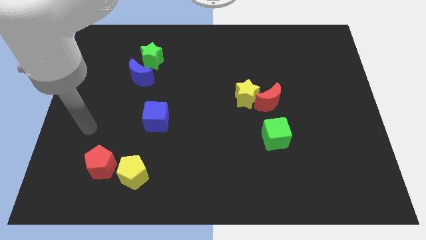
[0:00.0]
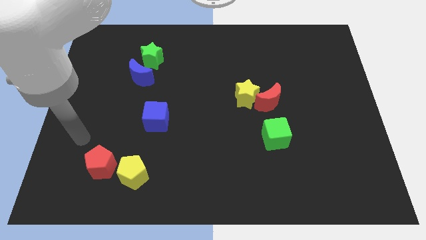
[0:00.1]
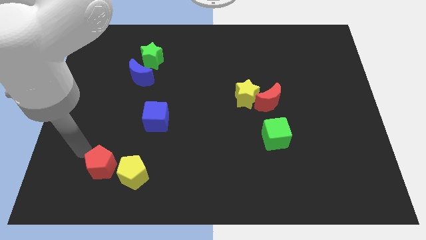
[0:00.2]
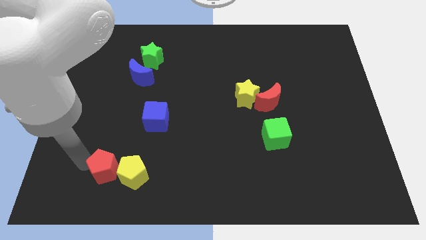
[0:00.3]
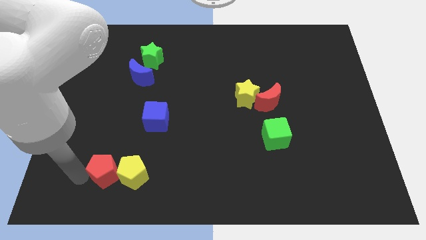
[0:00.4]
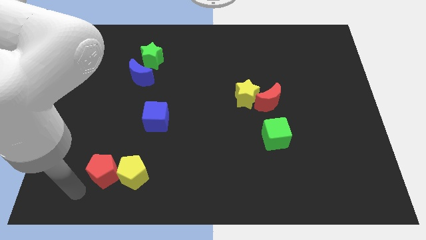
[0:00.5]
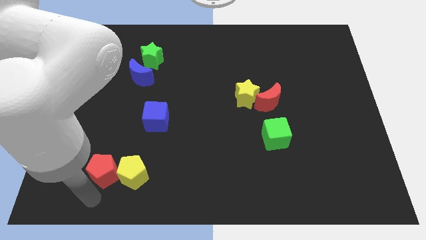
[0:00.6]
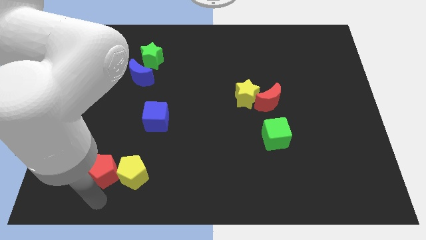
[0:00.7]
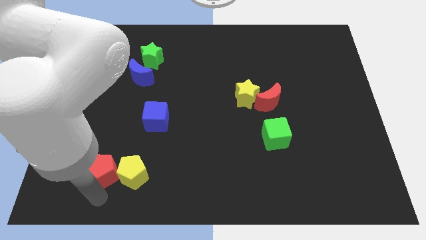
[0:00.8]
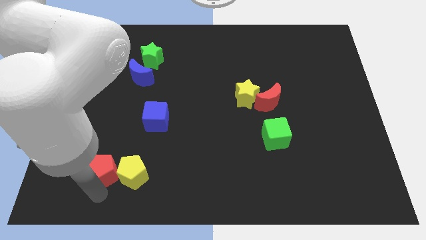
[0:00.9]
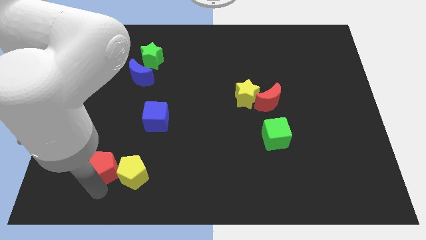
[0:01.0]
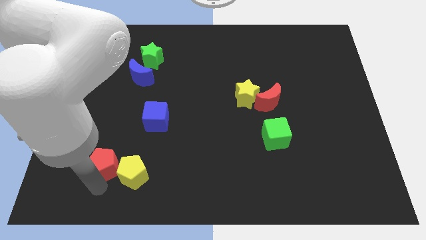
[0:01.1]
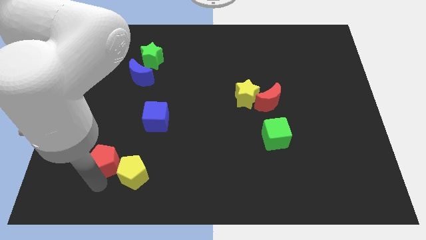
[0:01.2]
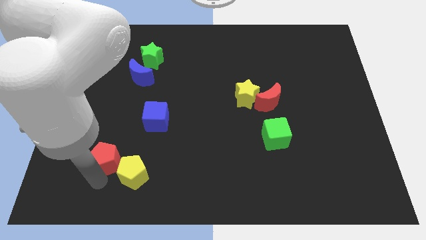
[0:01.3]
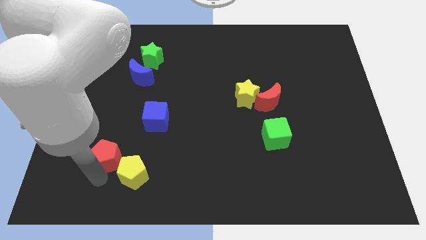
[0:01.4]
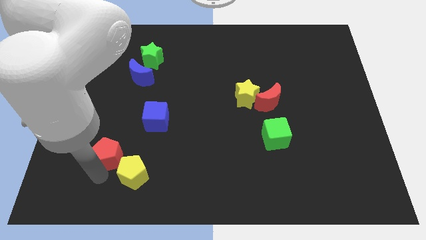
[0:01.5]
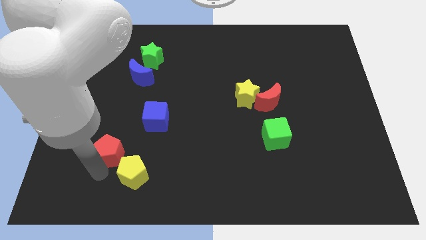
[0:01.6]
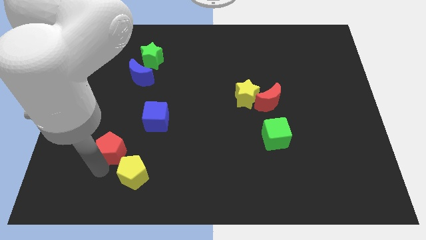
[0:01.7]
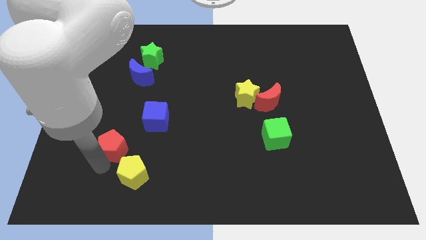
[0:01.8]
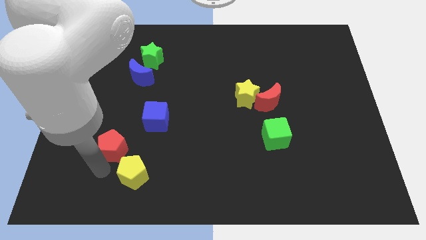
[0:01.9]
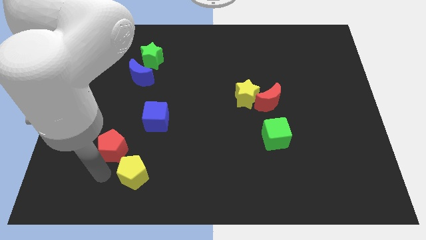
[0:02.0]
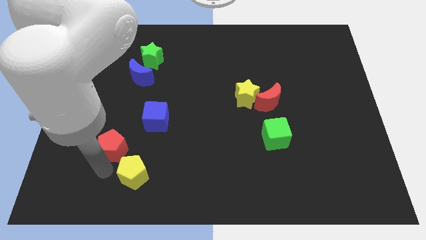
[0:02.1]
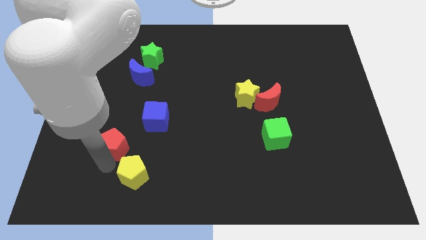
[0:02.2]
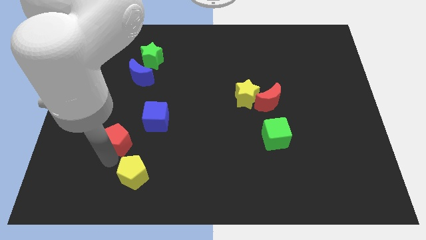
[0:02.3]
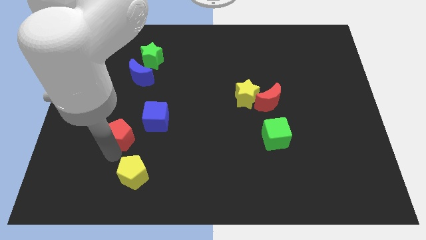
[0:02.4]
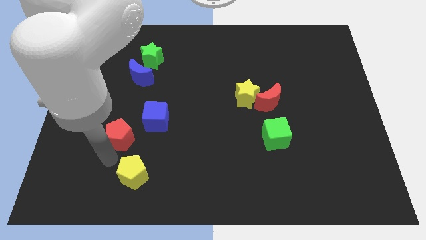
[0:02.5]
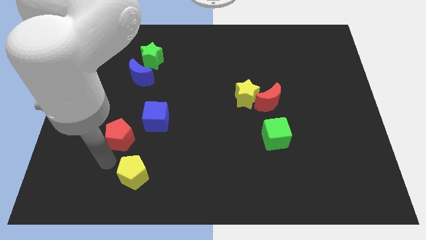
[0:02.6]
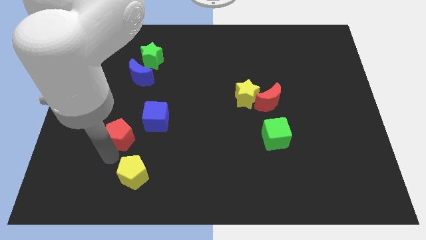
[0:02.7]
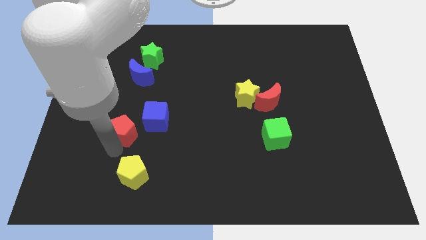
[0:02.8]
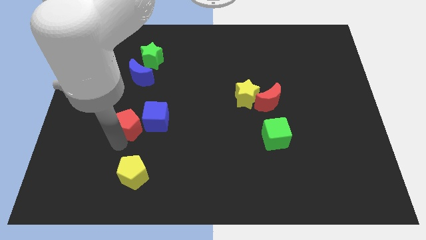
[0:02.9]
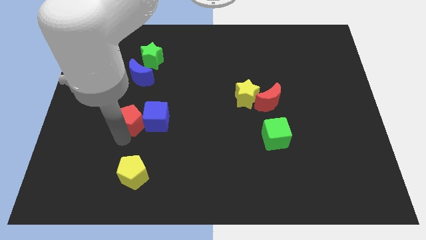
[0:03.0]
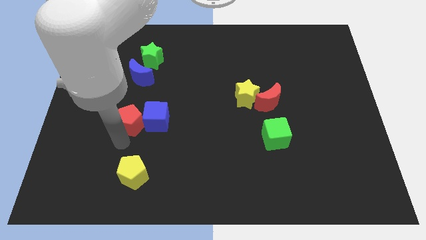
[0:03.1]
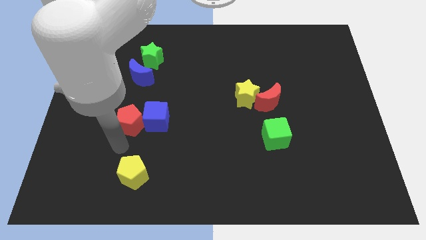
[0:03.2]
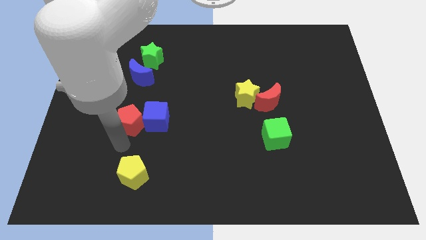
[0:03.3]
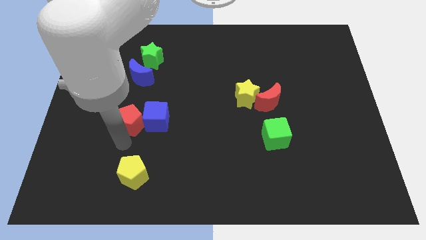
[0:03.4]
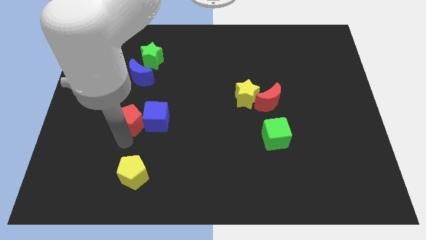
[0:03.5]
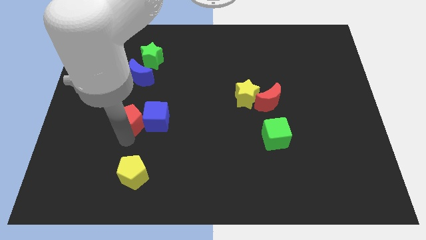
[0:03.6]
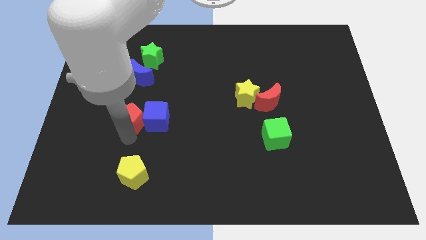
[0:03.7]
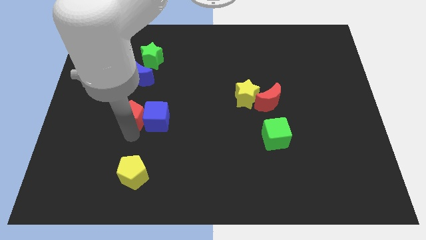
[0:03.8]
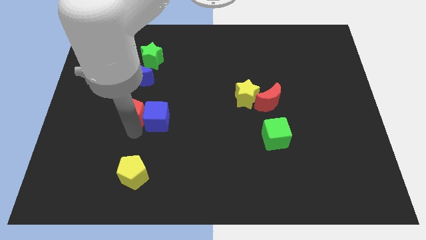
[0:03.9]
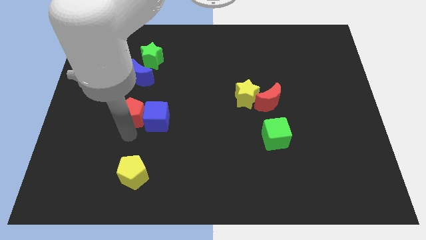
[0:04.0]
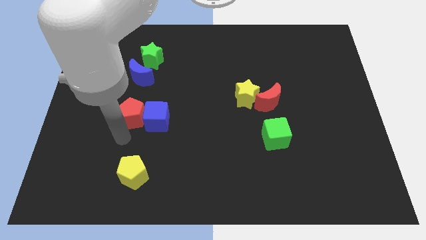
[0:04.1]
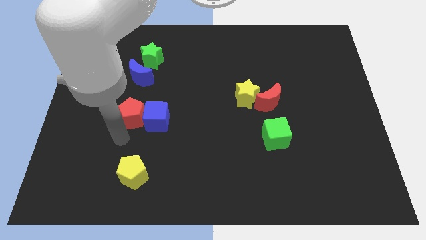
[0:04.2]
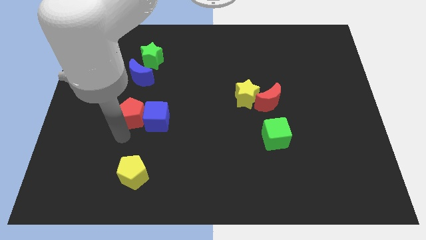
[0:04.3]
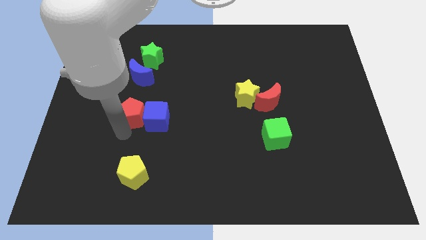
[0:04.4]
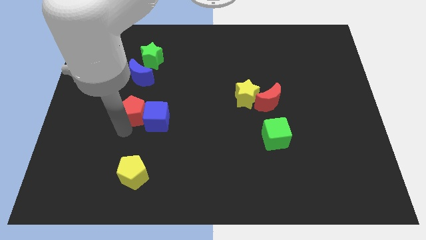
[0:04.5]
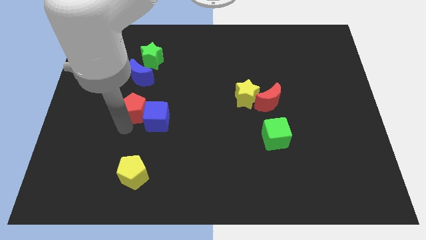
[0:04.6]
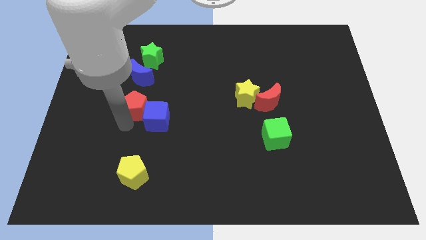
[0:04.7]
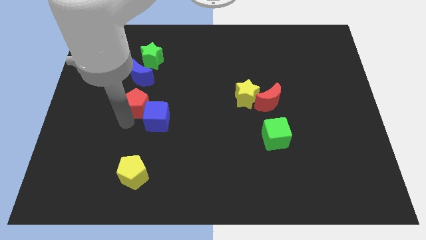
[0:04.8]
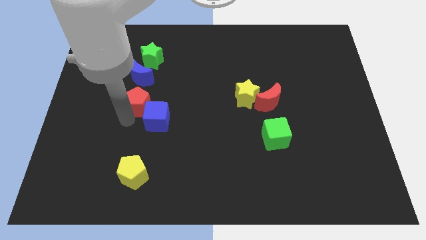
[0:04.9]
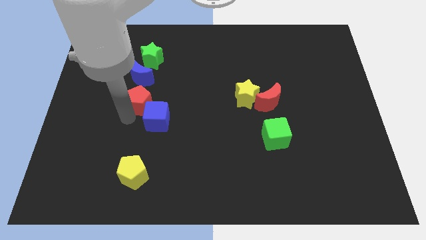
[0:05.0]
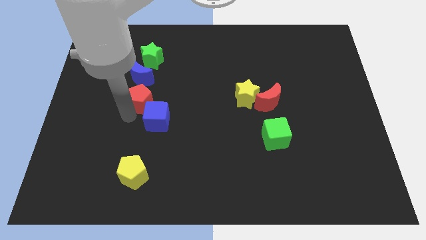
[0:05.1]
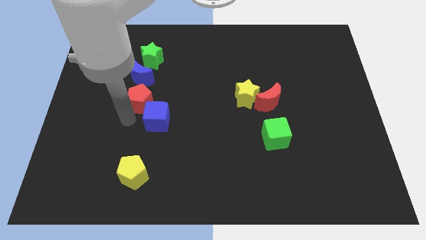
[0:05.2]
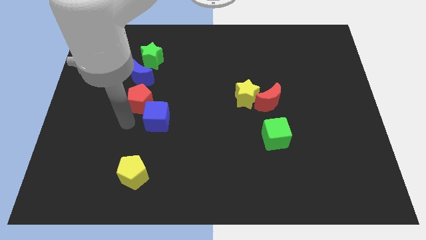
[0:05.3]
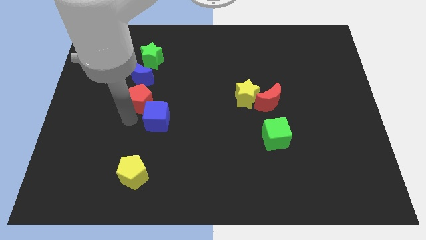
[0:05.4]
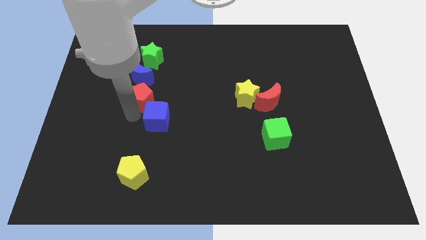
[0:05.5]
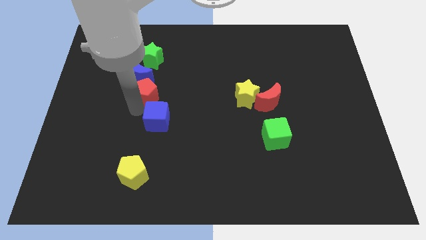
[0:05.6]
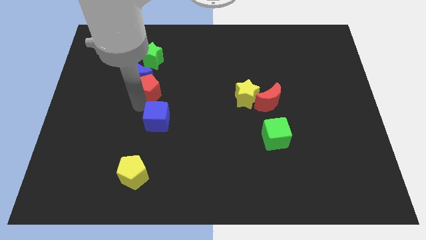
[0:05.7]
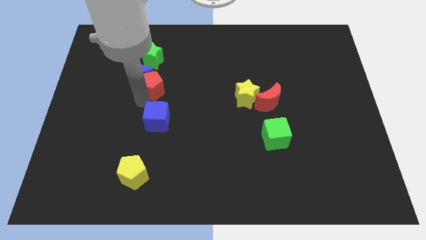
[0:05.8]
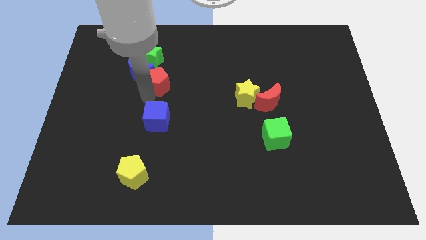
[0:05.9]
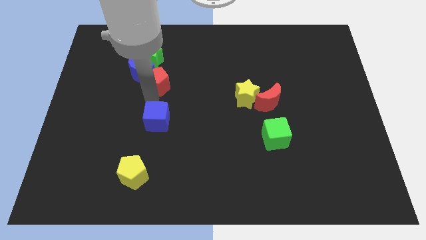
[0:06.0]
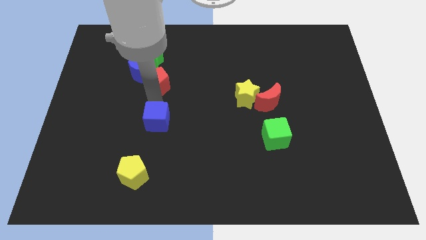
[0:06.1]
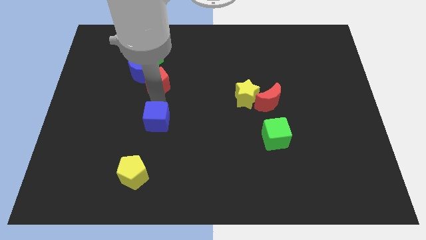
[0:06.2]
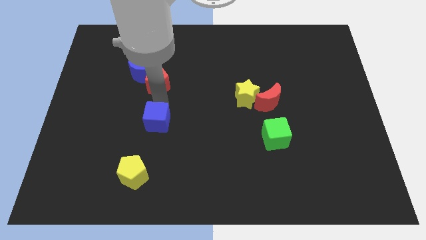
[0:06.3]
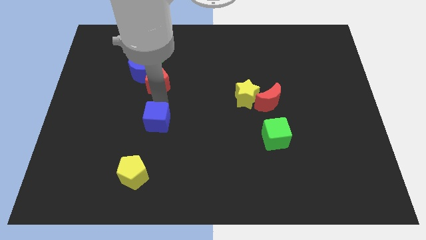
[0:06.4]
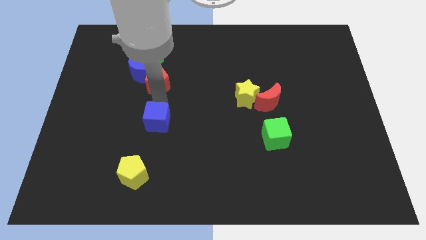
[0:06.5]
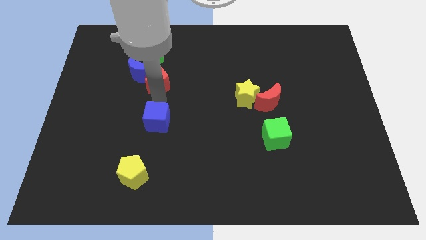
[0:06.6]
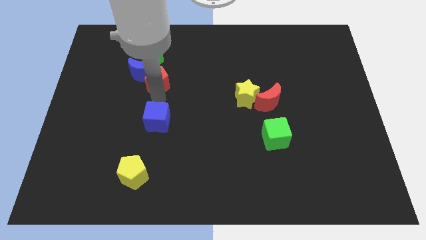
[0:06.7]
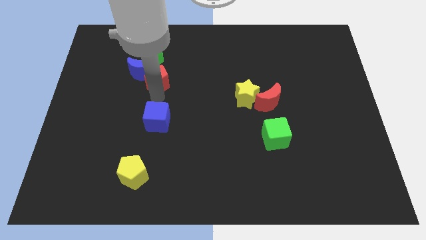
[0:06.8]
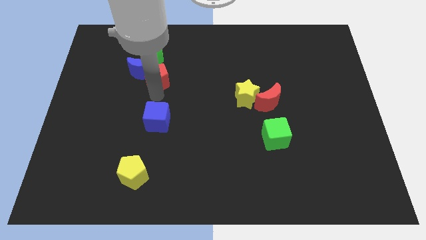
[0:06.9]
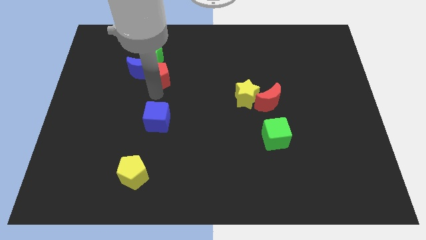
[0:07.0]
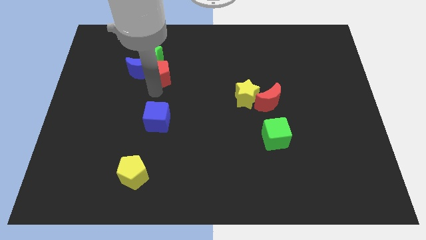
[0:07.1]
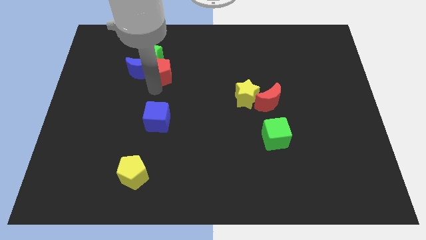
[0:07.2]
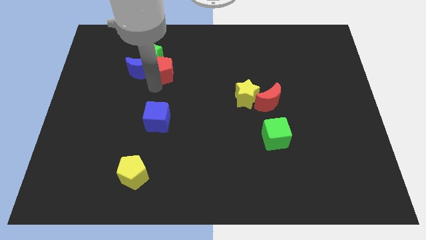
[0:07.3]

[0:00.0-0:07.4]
slide the red pentagon next to the green star

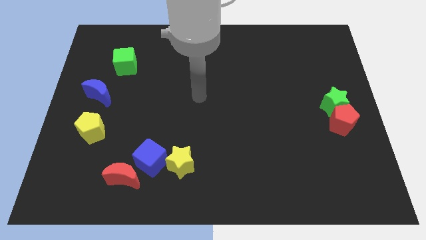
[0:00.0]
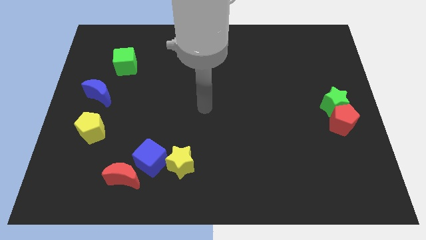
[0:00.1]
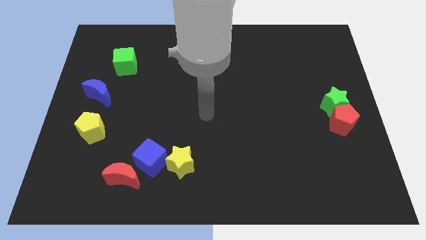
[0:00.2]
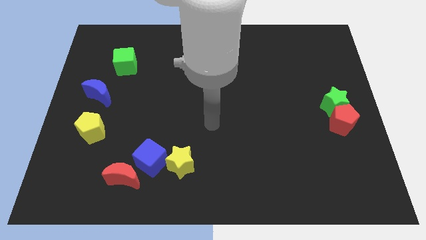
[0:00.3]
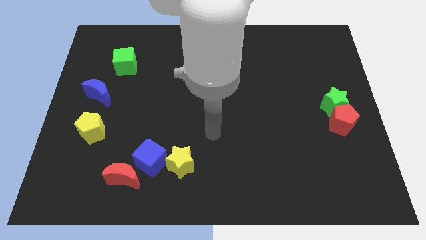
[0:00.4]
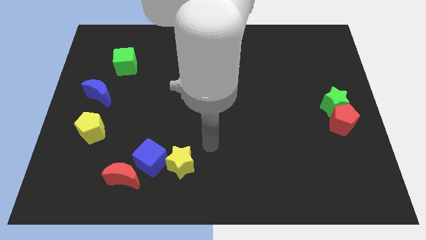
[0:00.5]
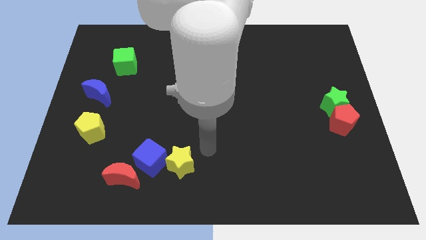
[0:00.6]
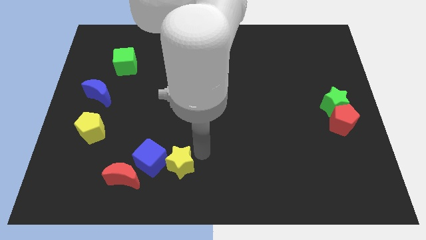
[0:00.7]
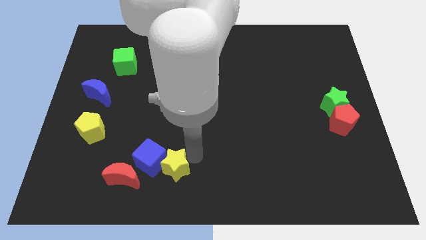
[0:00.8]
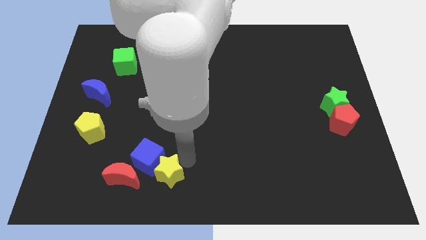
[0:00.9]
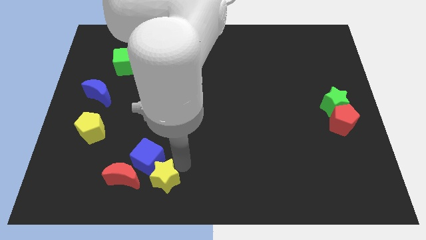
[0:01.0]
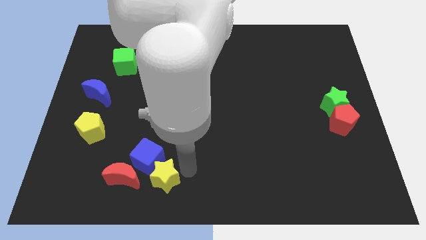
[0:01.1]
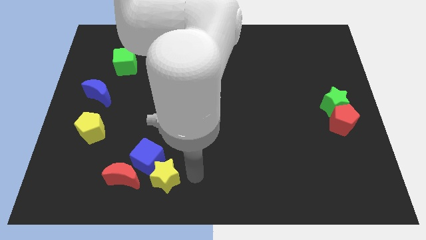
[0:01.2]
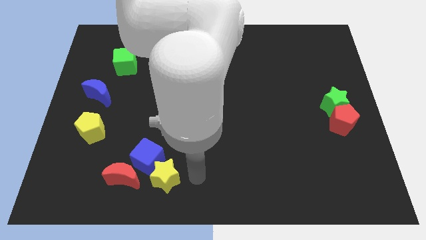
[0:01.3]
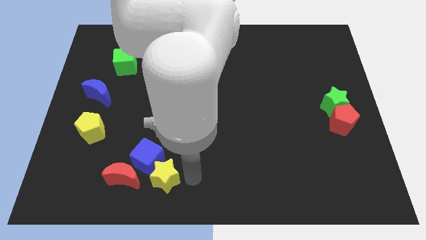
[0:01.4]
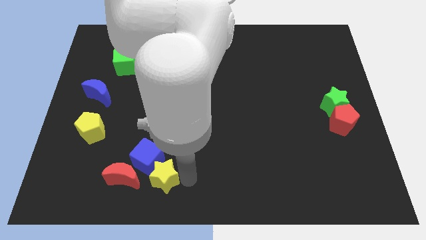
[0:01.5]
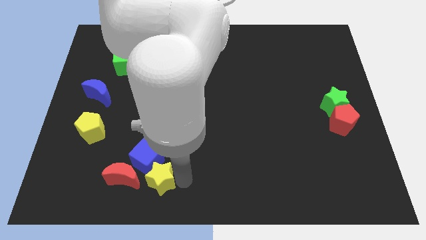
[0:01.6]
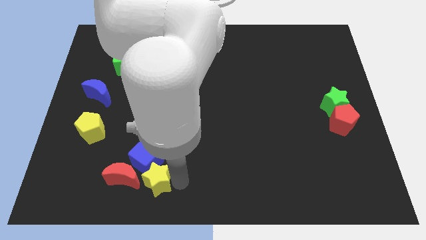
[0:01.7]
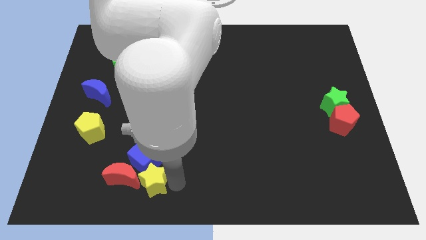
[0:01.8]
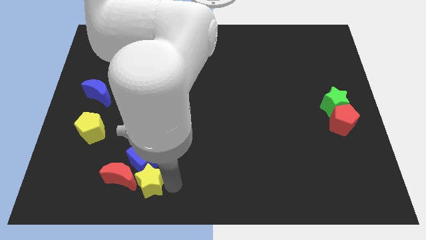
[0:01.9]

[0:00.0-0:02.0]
push the yellow star towards the red moon
